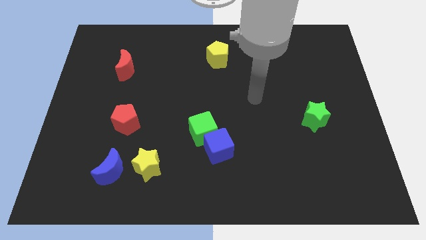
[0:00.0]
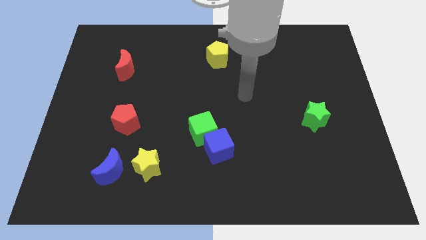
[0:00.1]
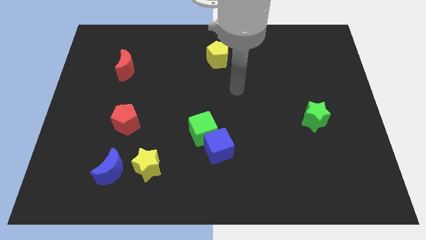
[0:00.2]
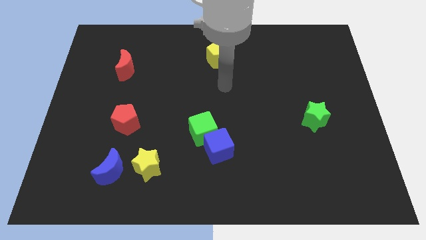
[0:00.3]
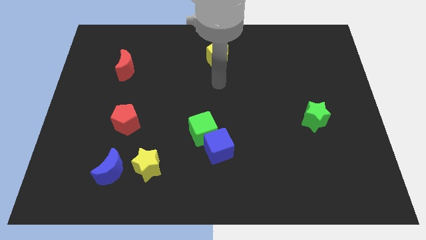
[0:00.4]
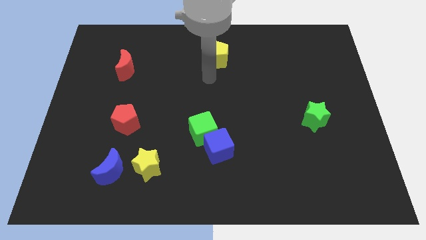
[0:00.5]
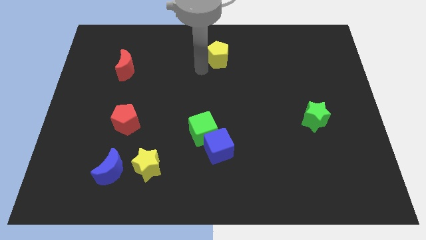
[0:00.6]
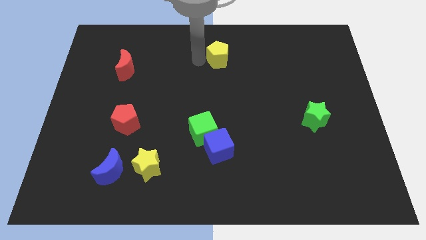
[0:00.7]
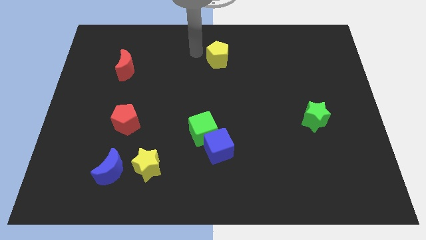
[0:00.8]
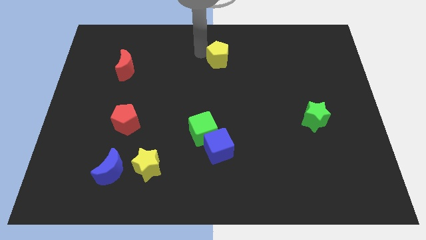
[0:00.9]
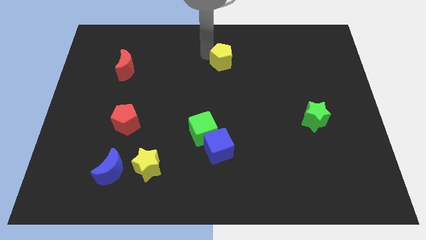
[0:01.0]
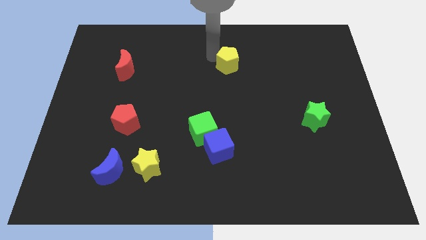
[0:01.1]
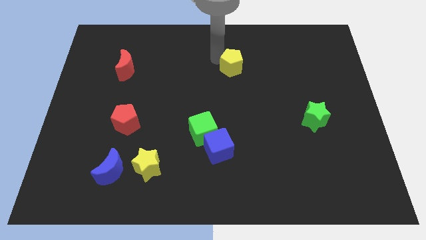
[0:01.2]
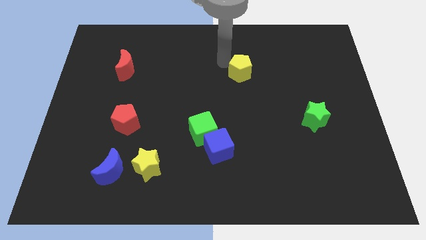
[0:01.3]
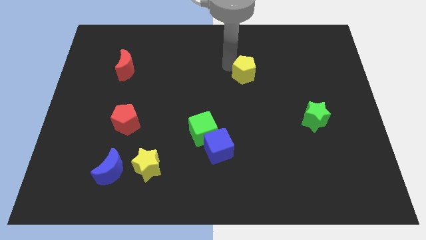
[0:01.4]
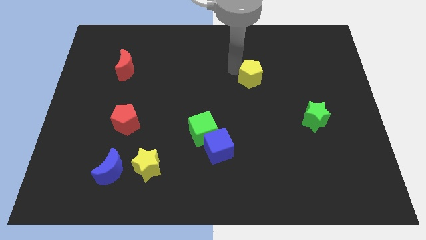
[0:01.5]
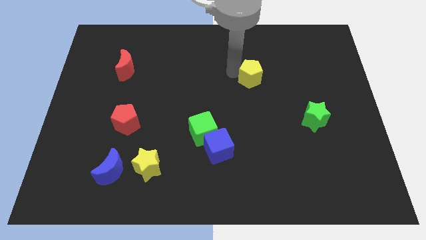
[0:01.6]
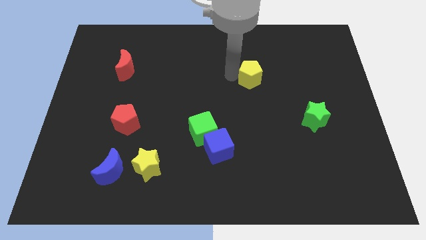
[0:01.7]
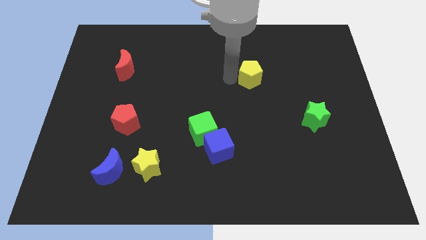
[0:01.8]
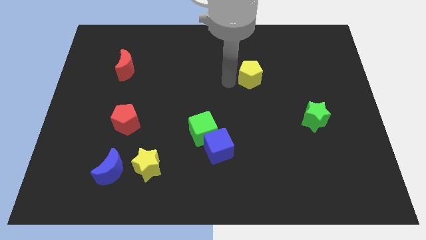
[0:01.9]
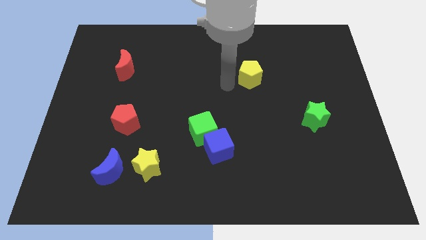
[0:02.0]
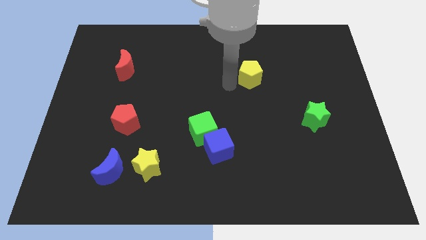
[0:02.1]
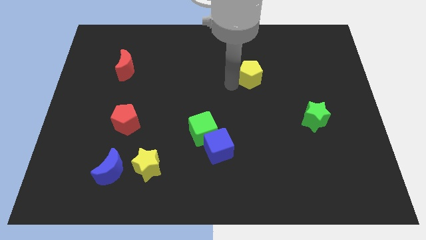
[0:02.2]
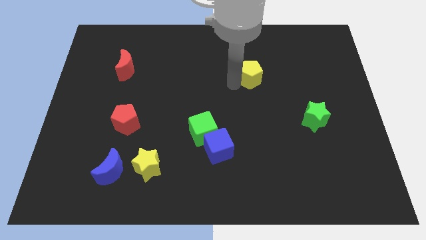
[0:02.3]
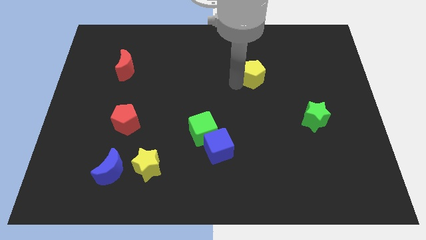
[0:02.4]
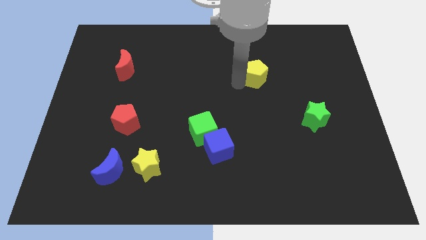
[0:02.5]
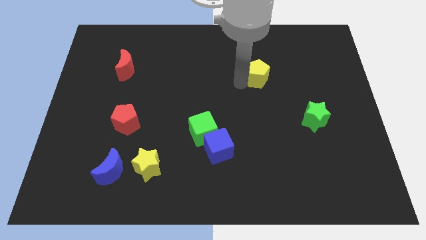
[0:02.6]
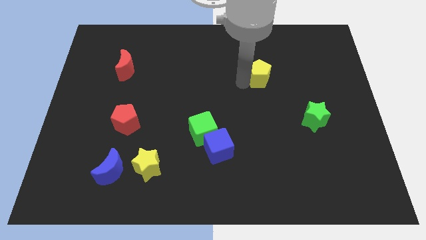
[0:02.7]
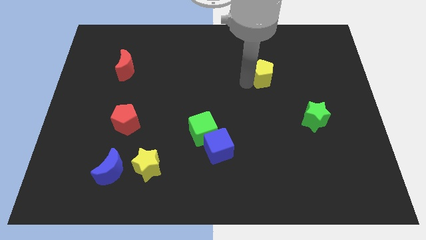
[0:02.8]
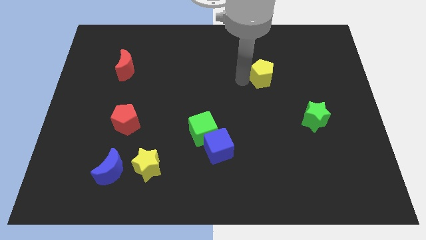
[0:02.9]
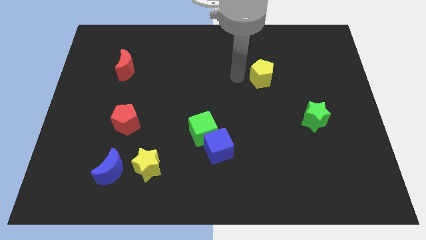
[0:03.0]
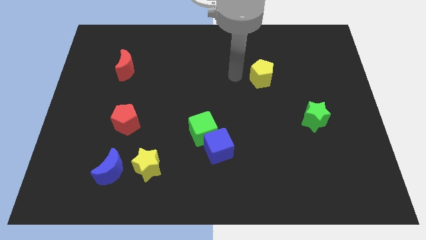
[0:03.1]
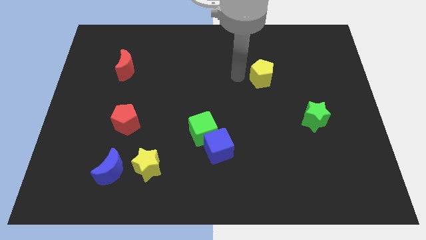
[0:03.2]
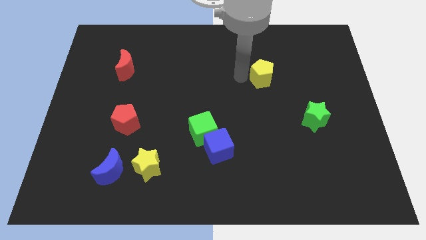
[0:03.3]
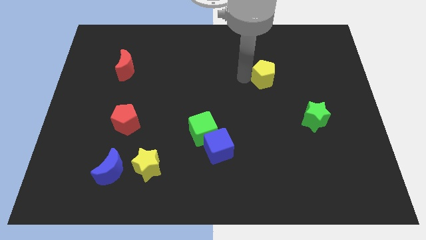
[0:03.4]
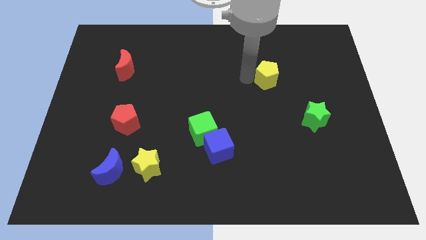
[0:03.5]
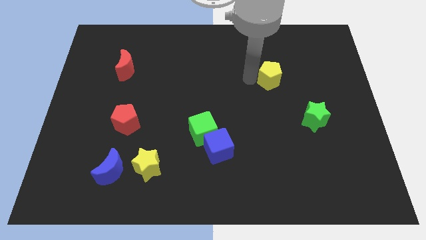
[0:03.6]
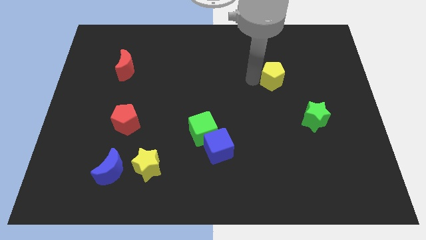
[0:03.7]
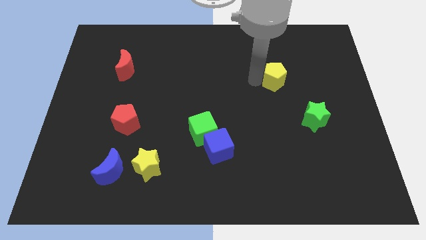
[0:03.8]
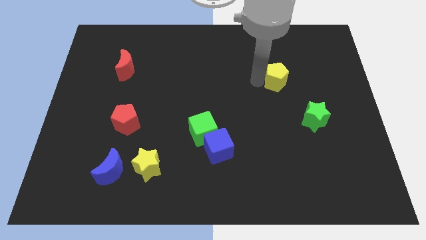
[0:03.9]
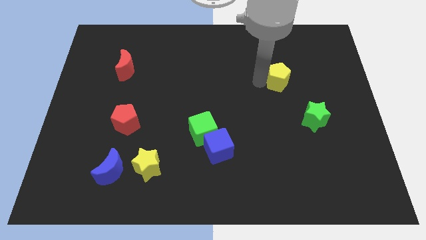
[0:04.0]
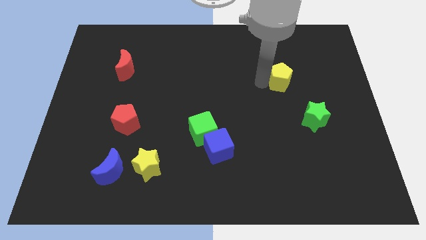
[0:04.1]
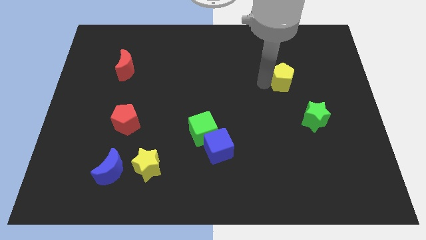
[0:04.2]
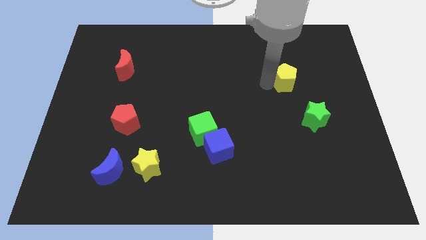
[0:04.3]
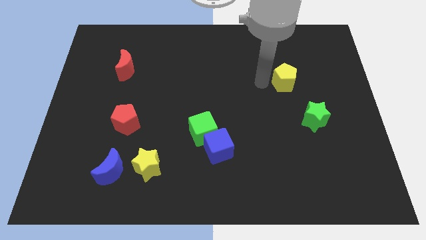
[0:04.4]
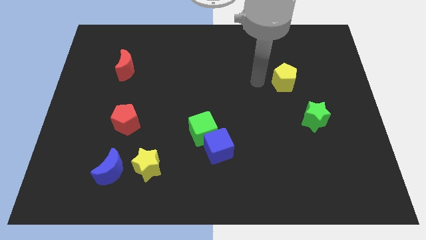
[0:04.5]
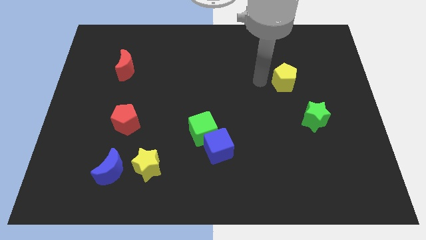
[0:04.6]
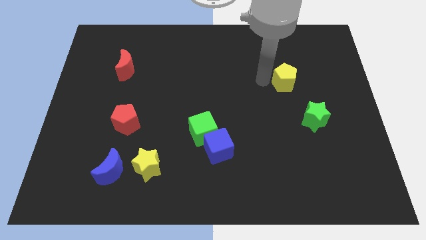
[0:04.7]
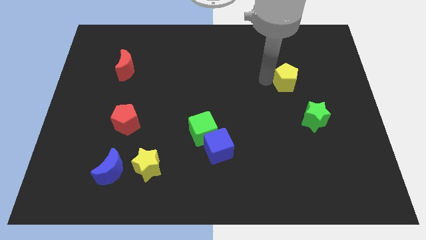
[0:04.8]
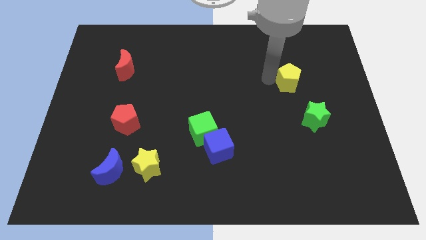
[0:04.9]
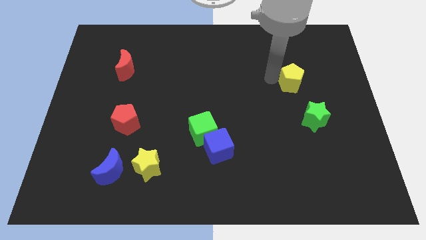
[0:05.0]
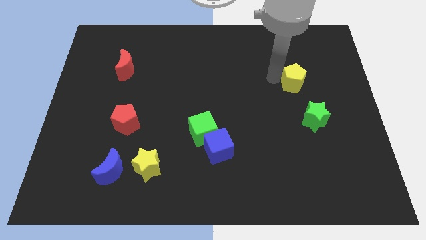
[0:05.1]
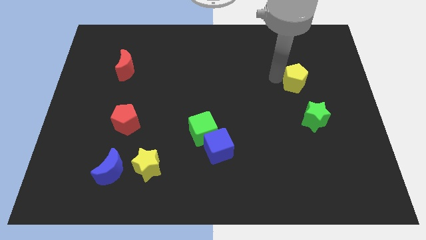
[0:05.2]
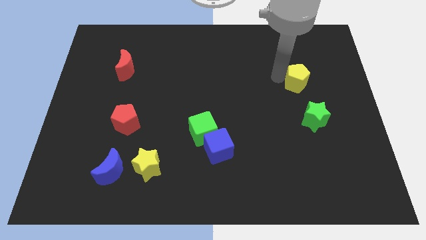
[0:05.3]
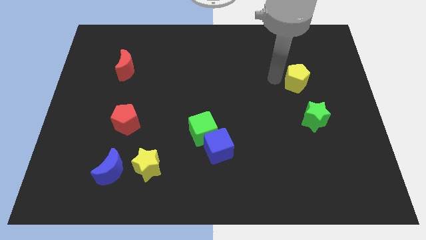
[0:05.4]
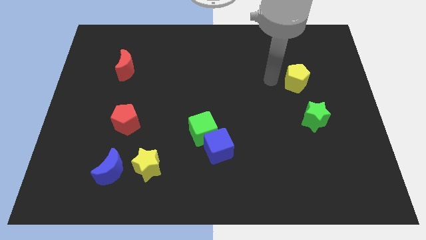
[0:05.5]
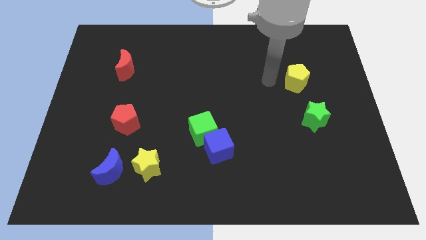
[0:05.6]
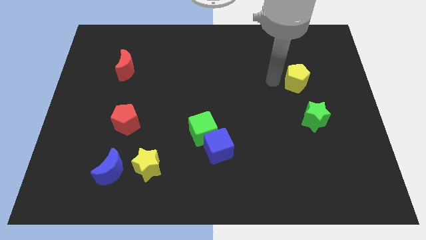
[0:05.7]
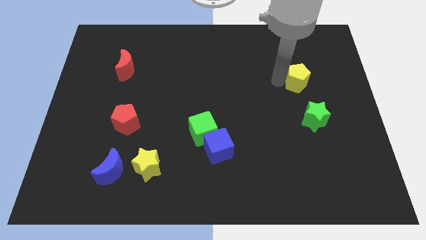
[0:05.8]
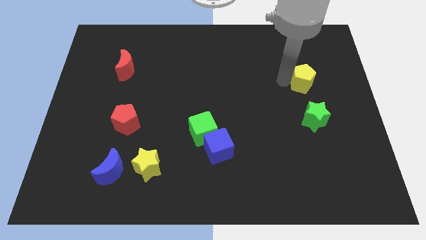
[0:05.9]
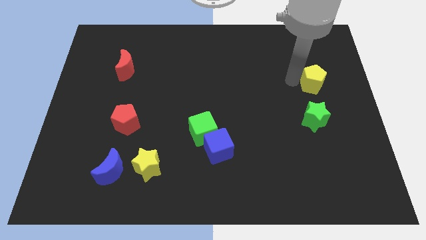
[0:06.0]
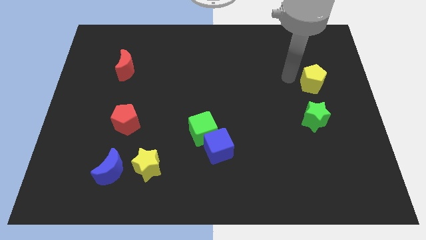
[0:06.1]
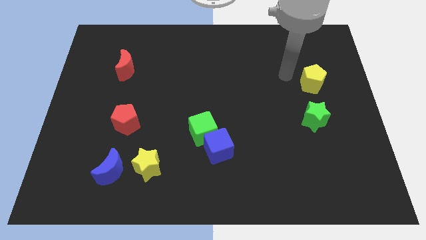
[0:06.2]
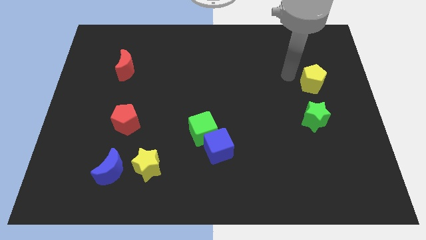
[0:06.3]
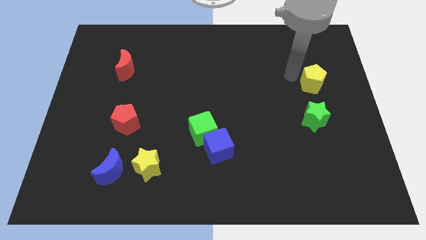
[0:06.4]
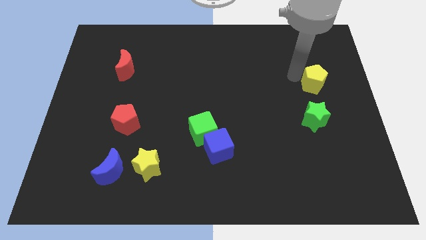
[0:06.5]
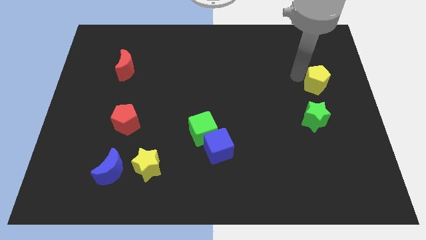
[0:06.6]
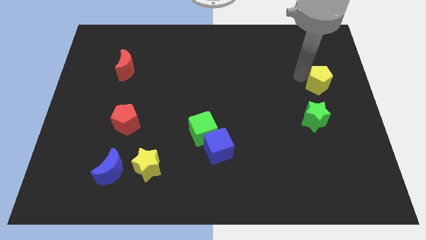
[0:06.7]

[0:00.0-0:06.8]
move the yellow pentagon to the center right
